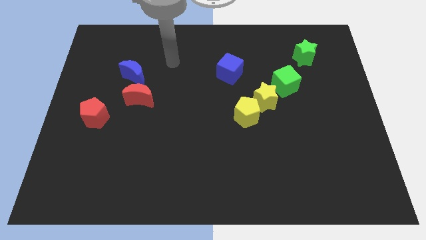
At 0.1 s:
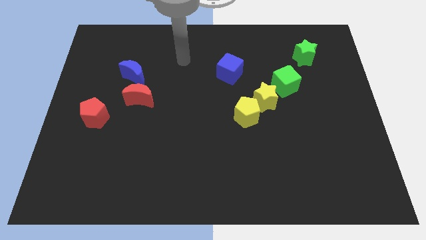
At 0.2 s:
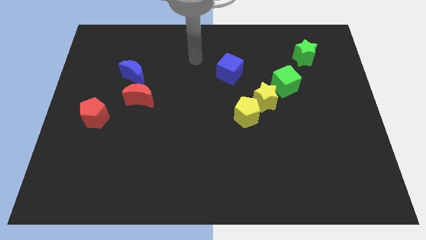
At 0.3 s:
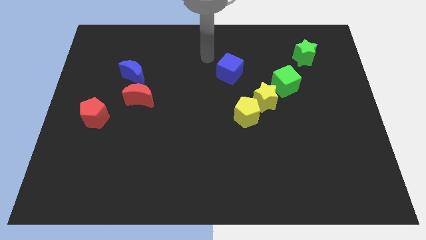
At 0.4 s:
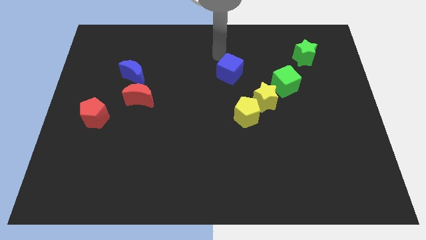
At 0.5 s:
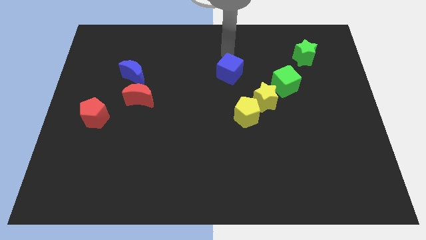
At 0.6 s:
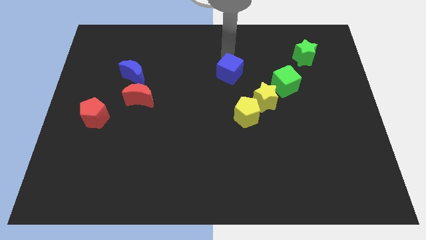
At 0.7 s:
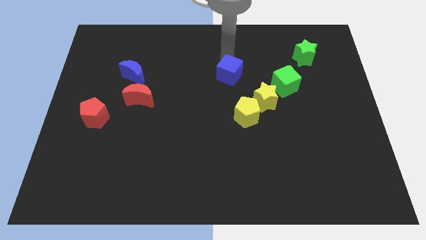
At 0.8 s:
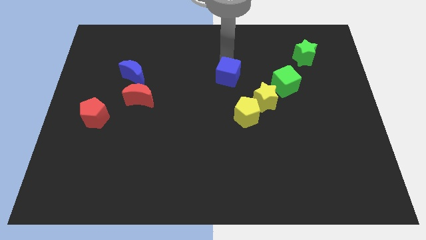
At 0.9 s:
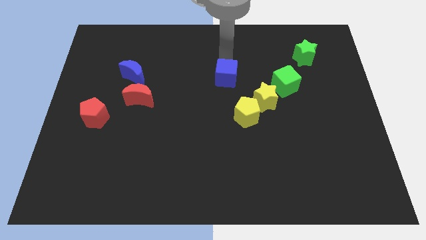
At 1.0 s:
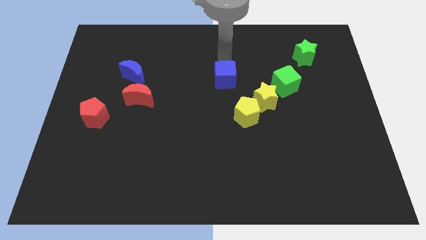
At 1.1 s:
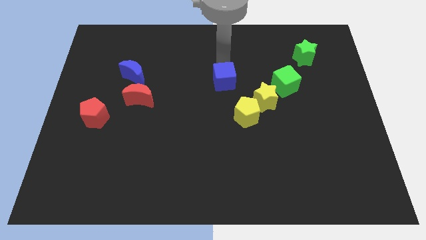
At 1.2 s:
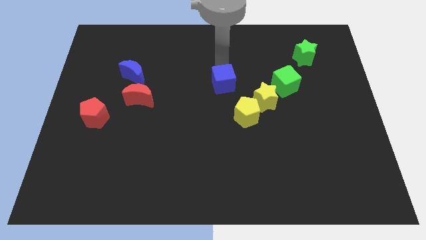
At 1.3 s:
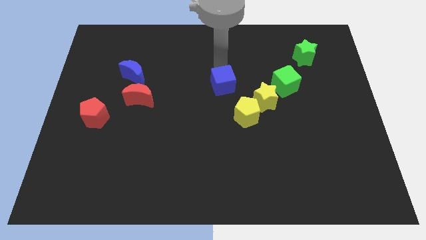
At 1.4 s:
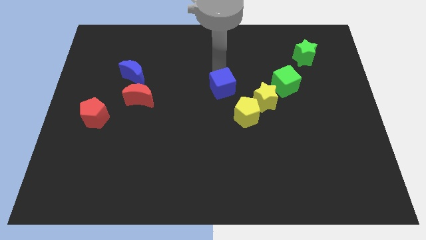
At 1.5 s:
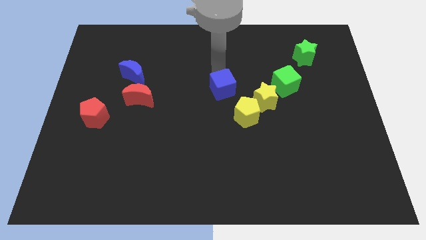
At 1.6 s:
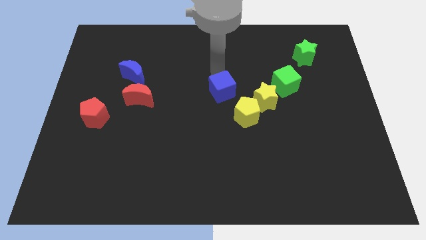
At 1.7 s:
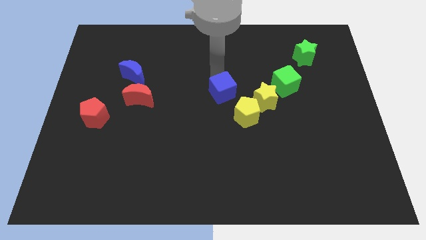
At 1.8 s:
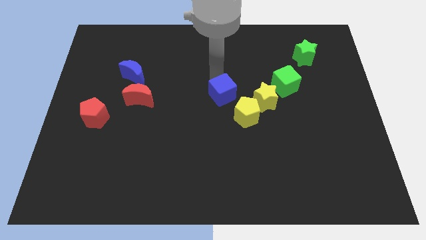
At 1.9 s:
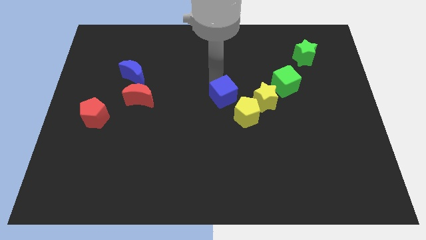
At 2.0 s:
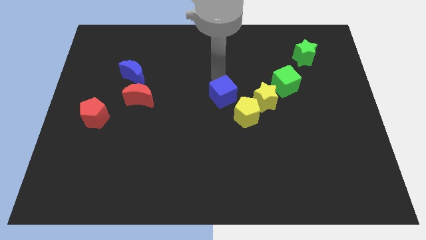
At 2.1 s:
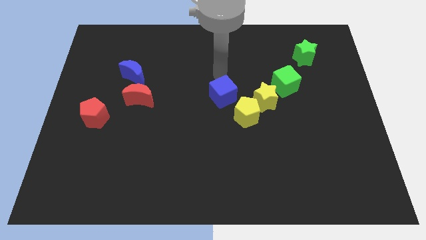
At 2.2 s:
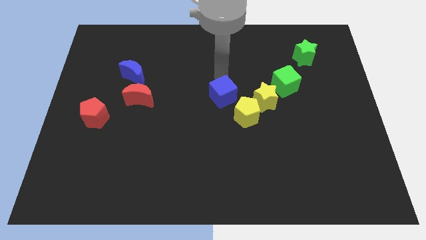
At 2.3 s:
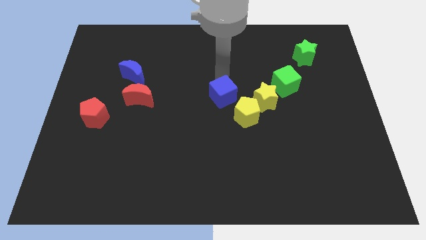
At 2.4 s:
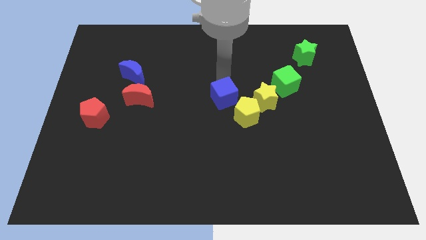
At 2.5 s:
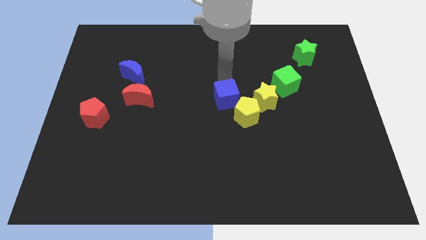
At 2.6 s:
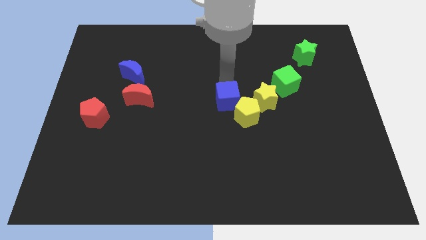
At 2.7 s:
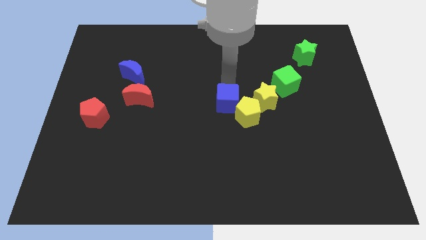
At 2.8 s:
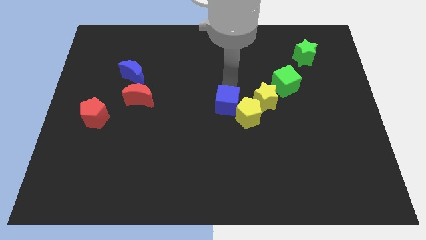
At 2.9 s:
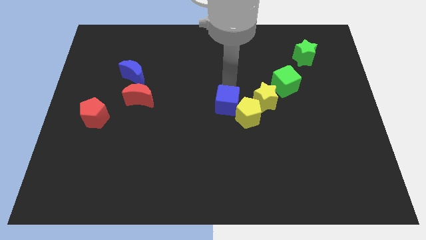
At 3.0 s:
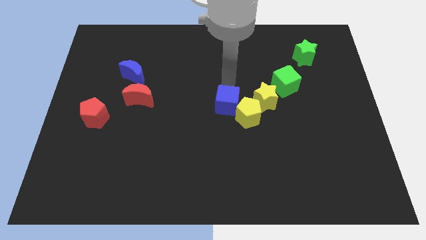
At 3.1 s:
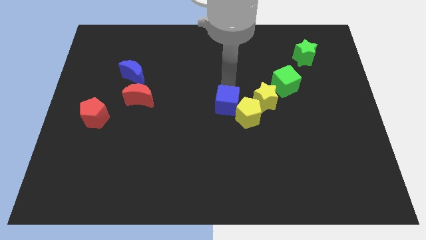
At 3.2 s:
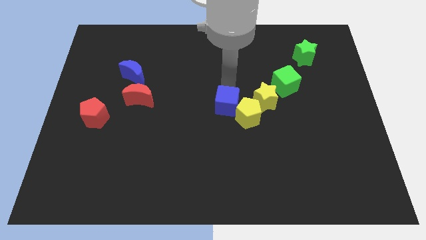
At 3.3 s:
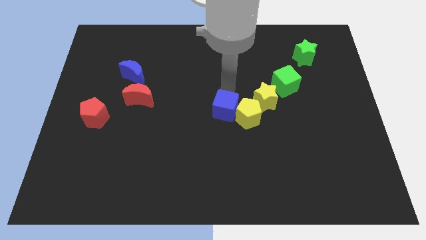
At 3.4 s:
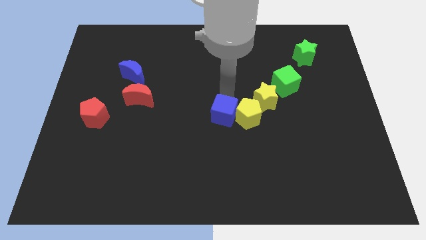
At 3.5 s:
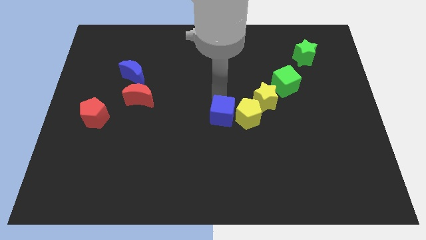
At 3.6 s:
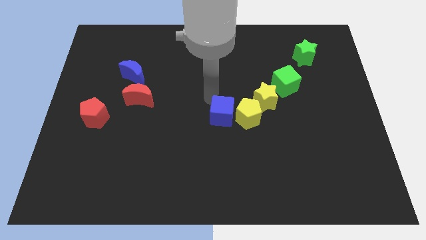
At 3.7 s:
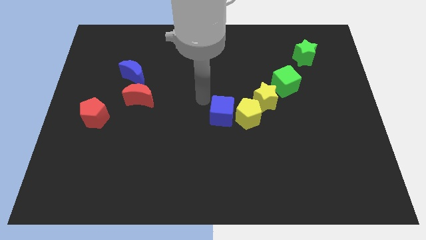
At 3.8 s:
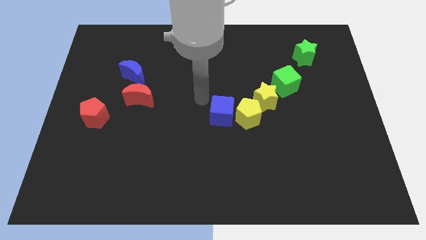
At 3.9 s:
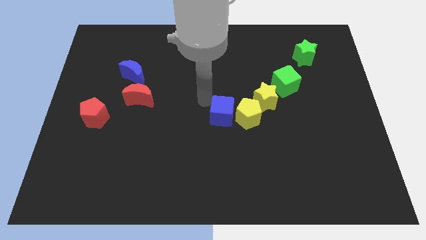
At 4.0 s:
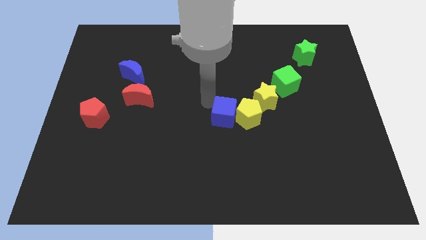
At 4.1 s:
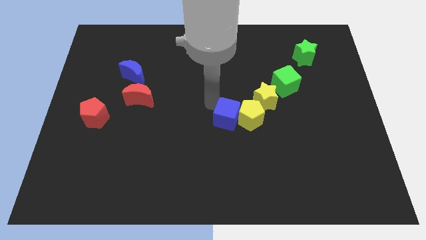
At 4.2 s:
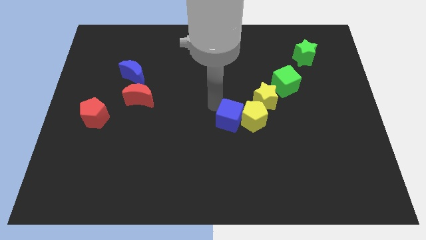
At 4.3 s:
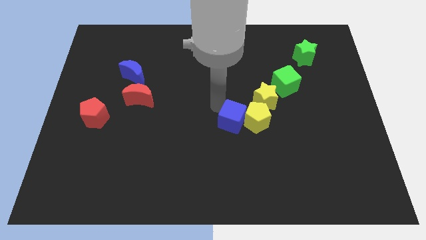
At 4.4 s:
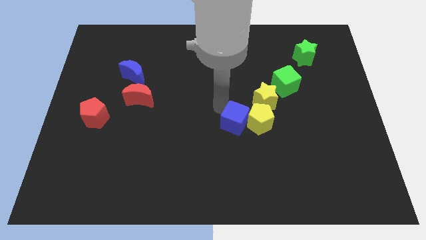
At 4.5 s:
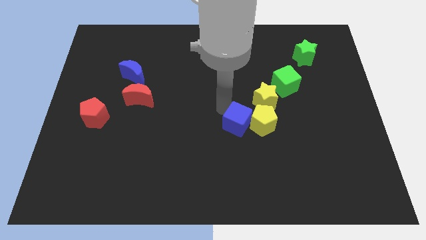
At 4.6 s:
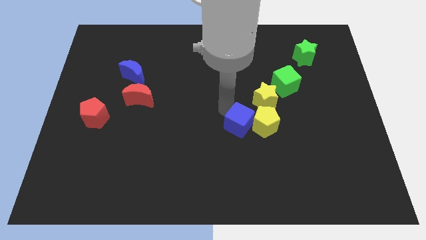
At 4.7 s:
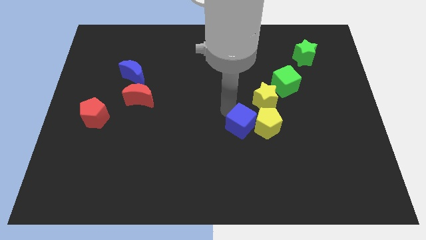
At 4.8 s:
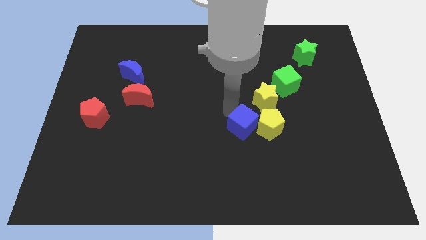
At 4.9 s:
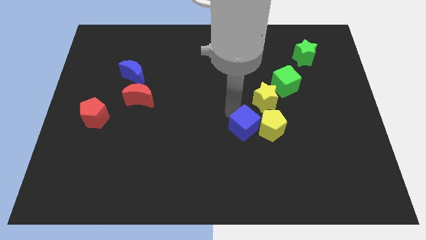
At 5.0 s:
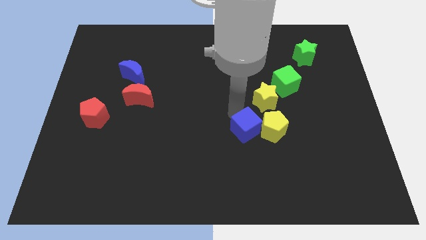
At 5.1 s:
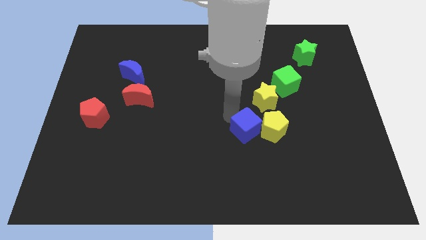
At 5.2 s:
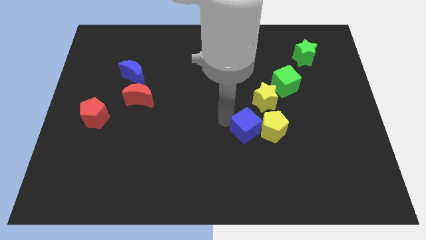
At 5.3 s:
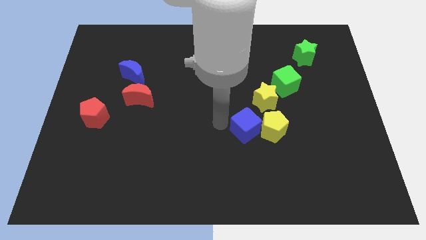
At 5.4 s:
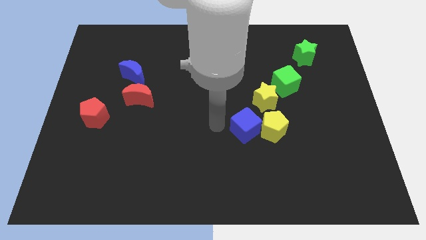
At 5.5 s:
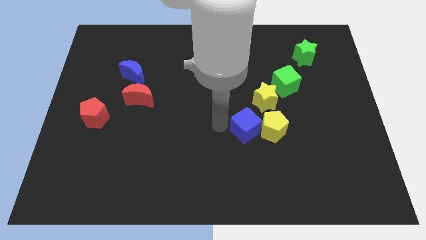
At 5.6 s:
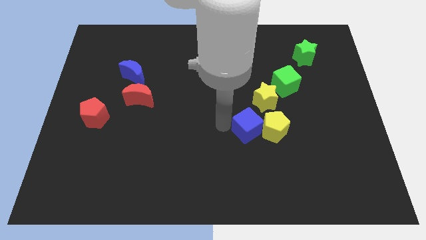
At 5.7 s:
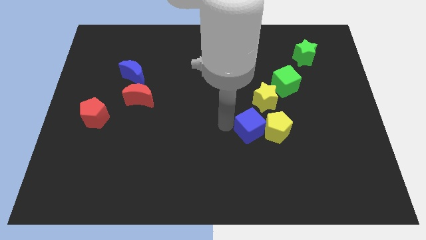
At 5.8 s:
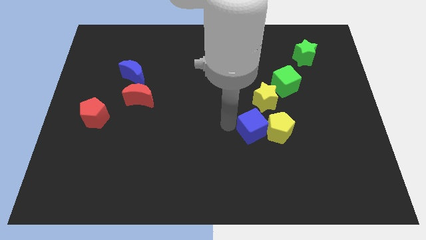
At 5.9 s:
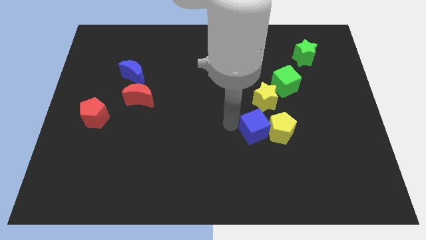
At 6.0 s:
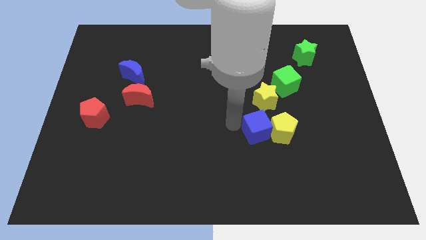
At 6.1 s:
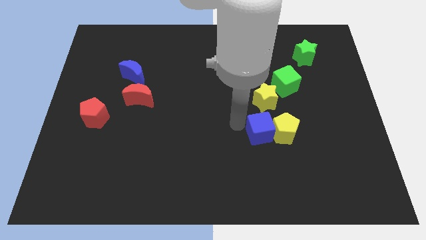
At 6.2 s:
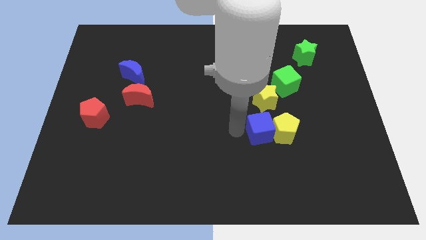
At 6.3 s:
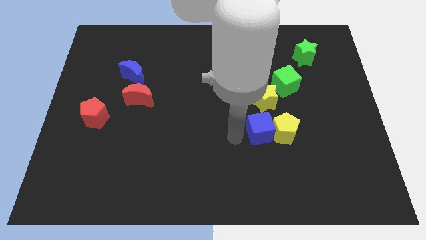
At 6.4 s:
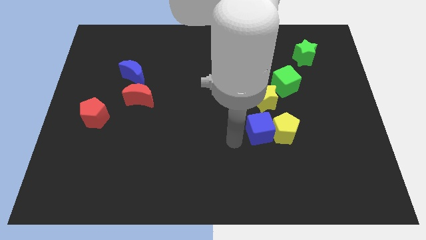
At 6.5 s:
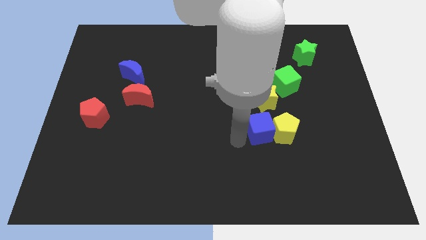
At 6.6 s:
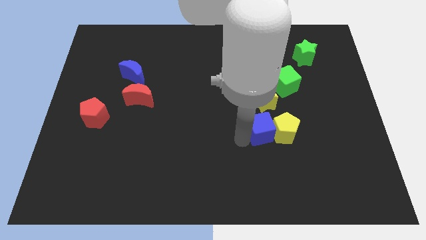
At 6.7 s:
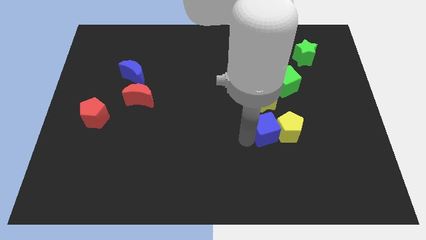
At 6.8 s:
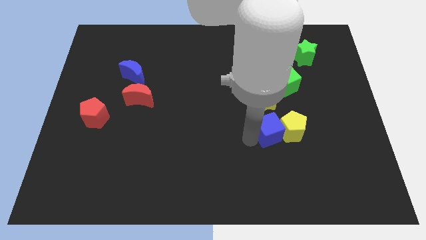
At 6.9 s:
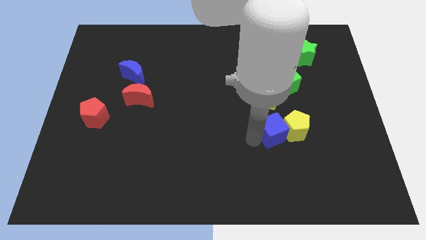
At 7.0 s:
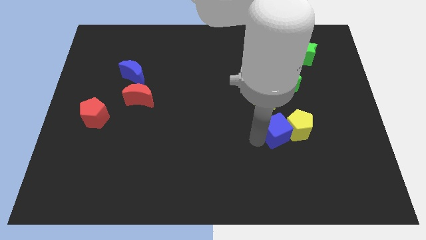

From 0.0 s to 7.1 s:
move the blue cube to the bottom of the green cube
